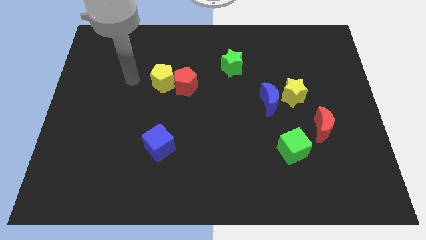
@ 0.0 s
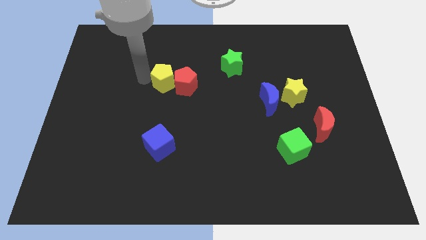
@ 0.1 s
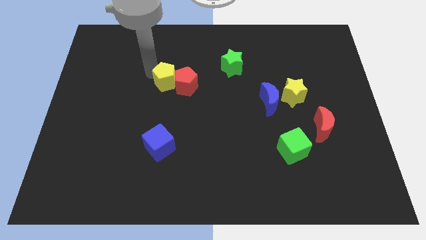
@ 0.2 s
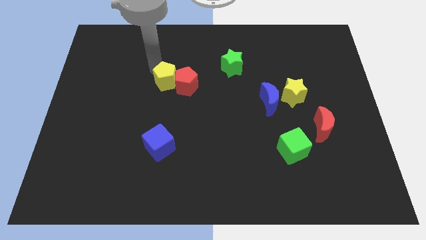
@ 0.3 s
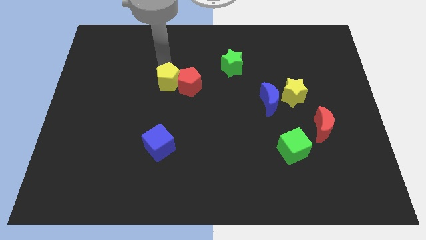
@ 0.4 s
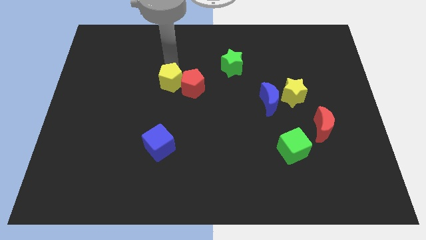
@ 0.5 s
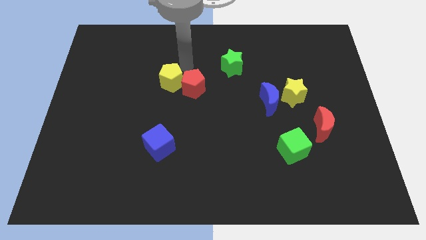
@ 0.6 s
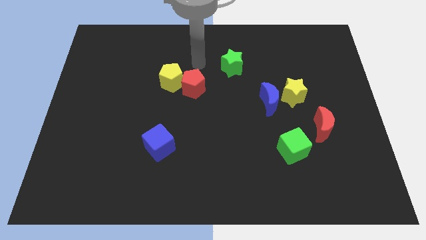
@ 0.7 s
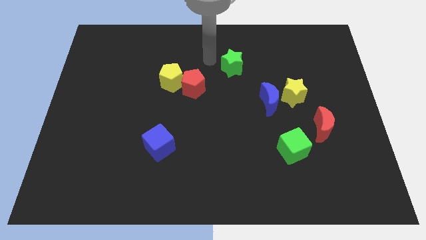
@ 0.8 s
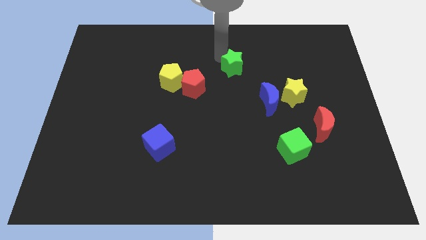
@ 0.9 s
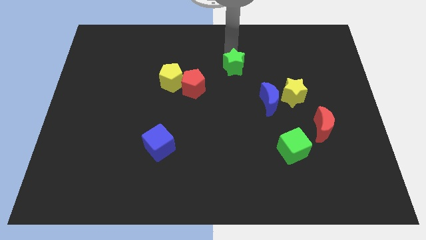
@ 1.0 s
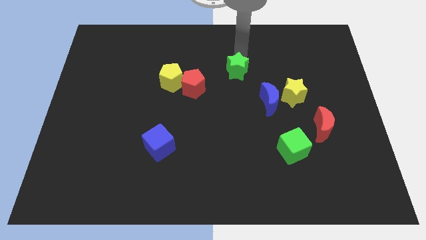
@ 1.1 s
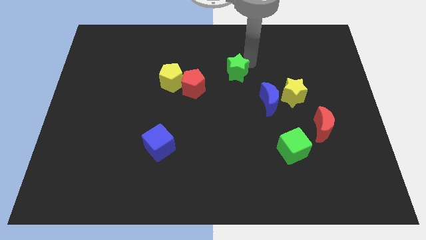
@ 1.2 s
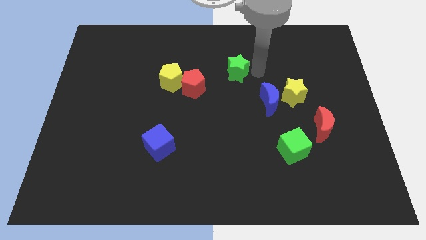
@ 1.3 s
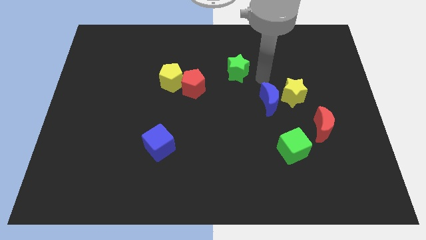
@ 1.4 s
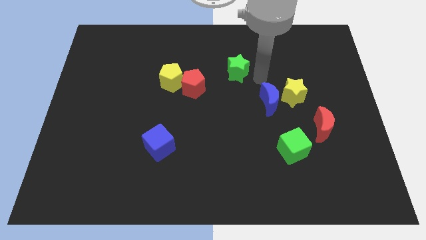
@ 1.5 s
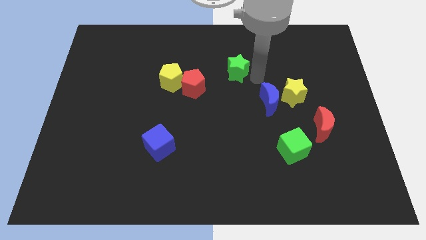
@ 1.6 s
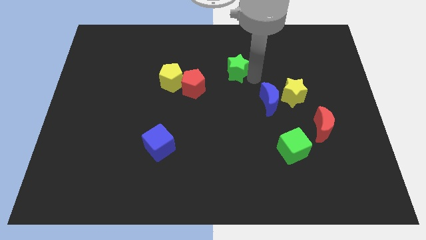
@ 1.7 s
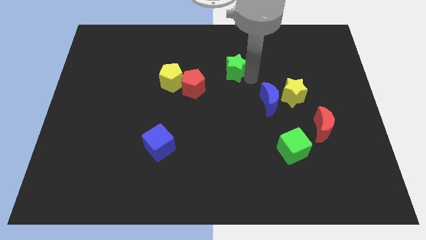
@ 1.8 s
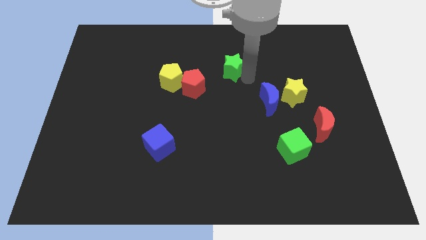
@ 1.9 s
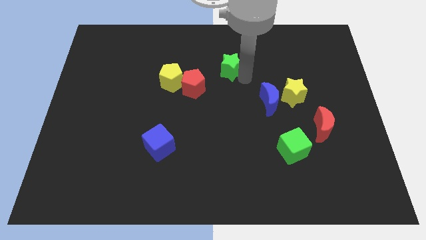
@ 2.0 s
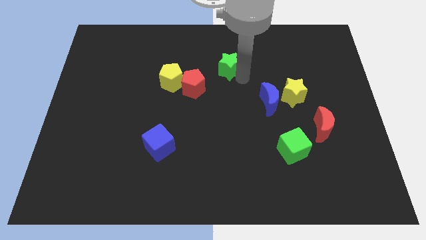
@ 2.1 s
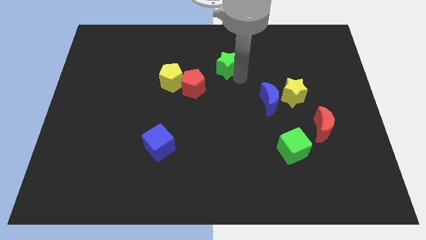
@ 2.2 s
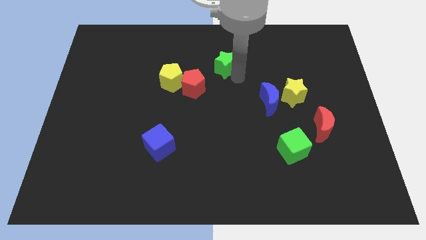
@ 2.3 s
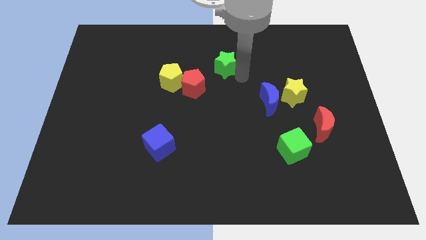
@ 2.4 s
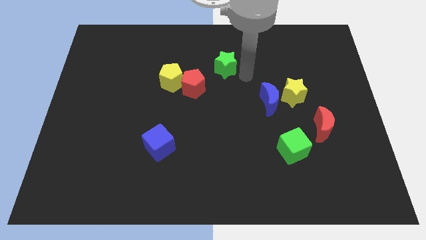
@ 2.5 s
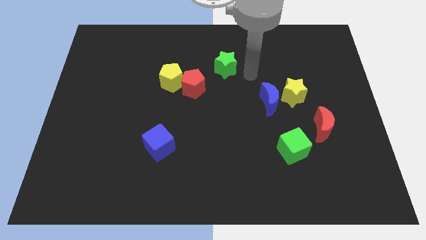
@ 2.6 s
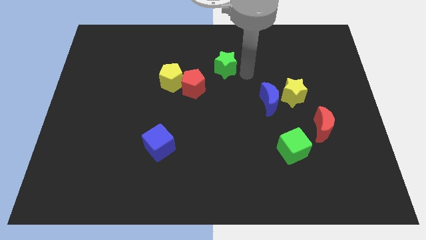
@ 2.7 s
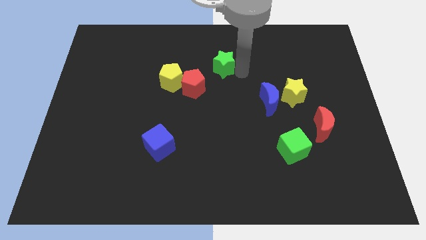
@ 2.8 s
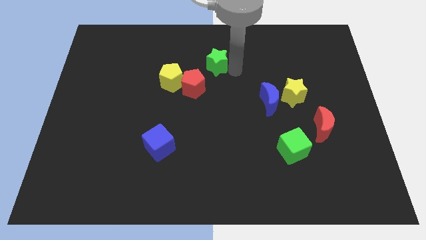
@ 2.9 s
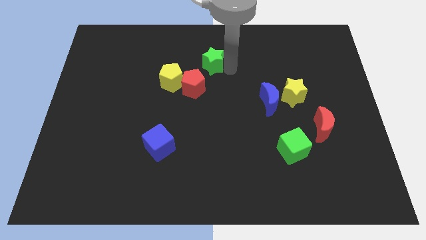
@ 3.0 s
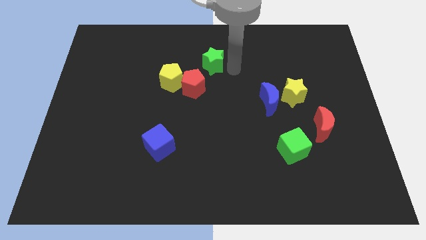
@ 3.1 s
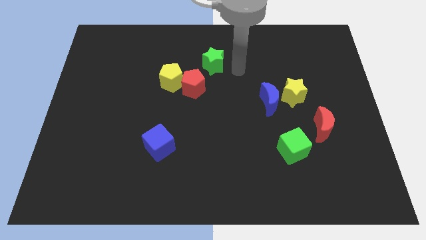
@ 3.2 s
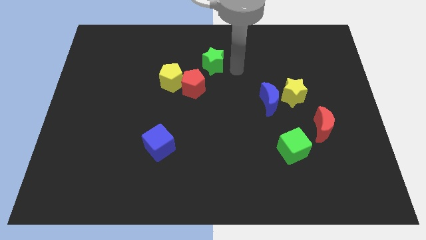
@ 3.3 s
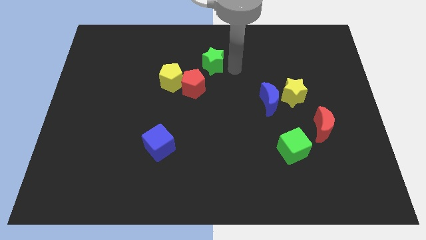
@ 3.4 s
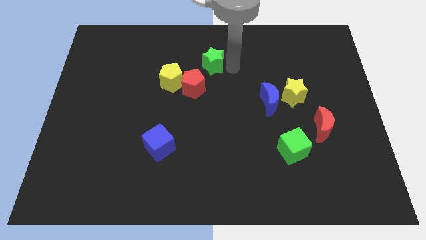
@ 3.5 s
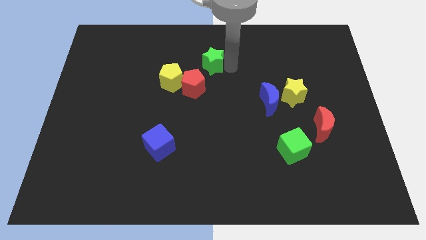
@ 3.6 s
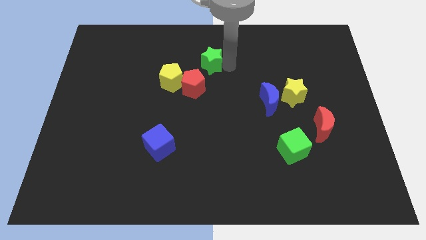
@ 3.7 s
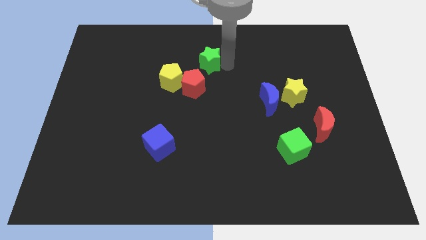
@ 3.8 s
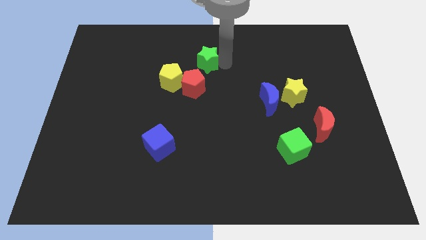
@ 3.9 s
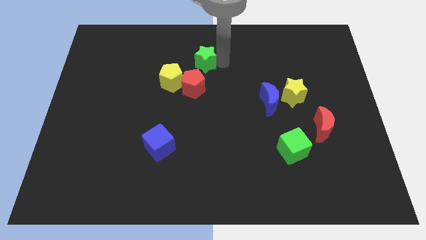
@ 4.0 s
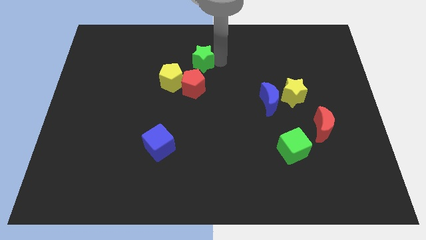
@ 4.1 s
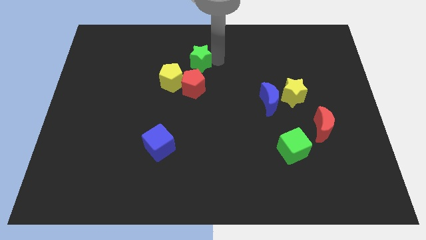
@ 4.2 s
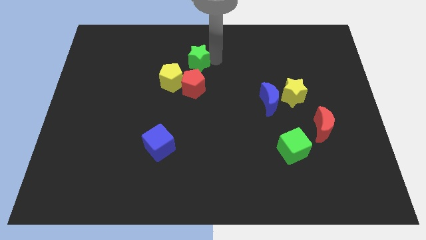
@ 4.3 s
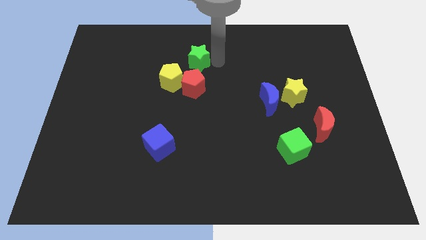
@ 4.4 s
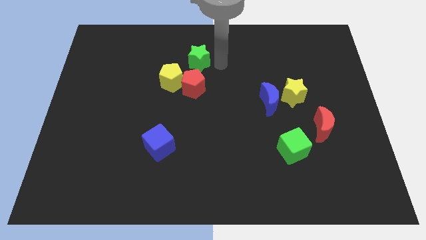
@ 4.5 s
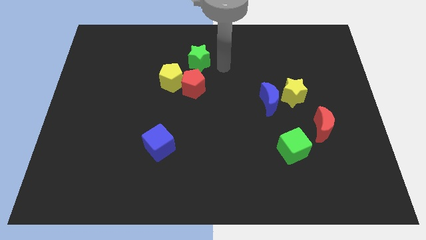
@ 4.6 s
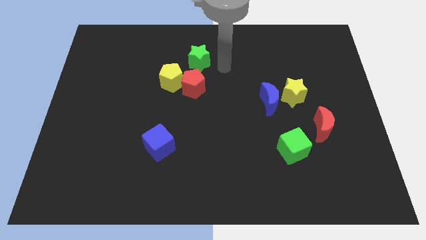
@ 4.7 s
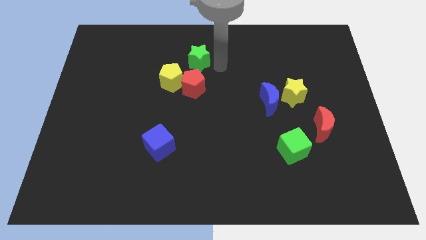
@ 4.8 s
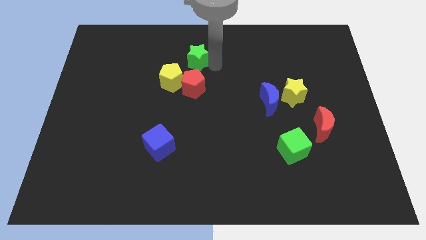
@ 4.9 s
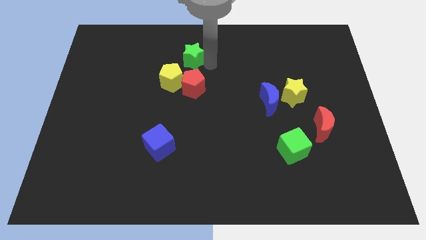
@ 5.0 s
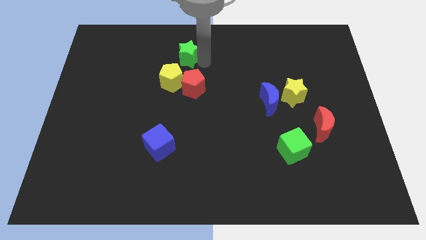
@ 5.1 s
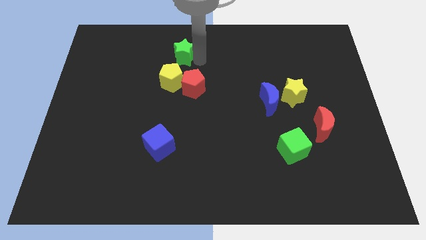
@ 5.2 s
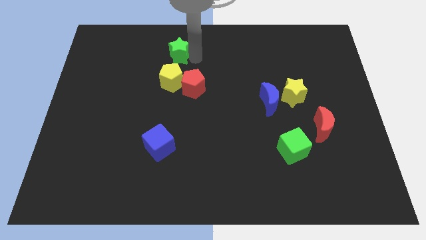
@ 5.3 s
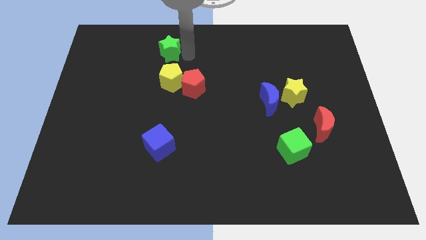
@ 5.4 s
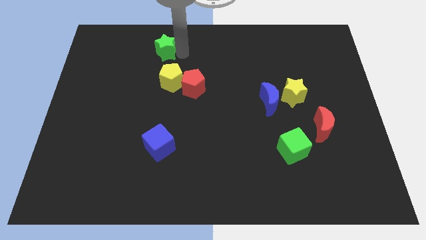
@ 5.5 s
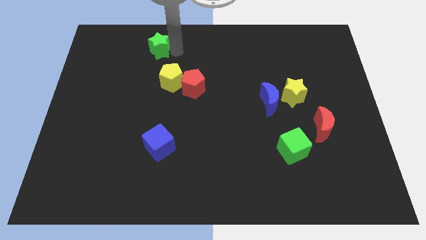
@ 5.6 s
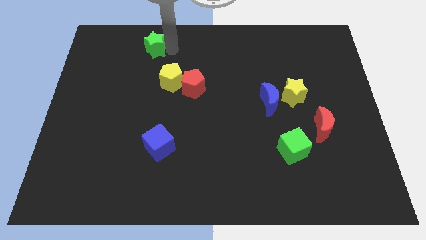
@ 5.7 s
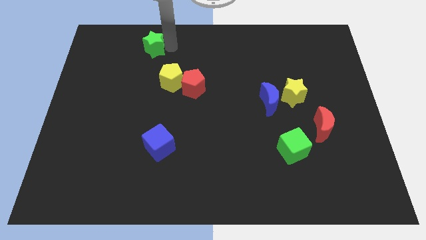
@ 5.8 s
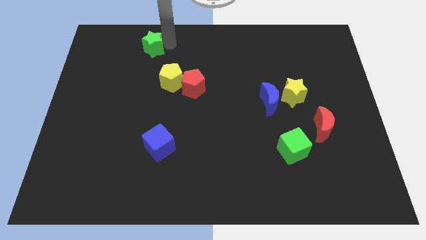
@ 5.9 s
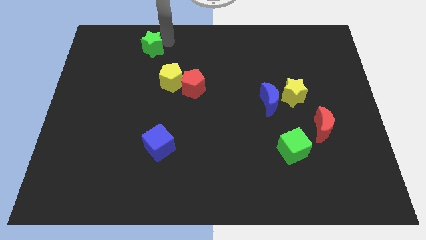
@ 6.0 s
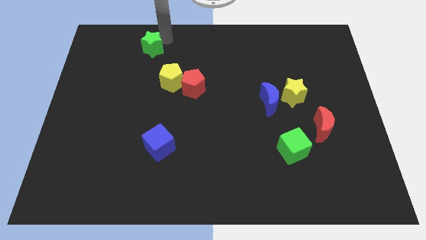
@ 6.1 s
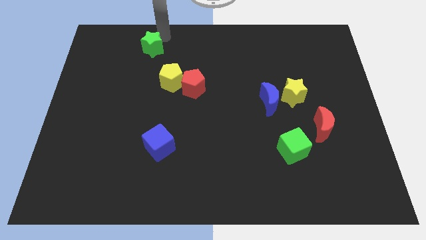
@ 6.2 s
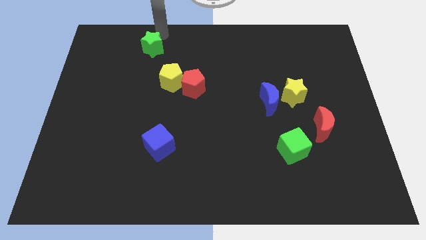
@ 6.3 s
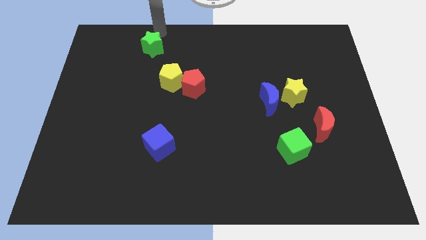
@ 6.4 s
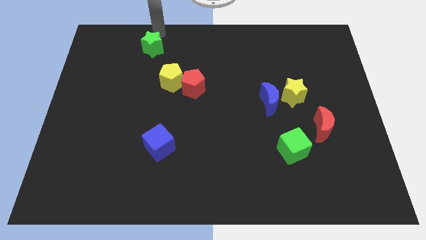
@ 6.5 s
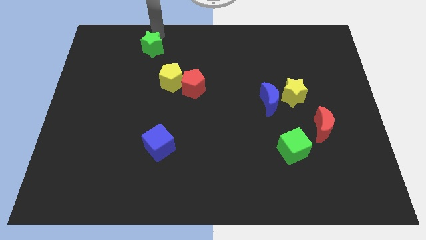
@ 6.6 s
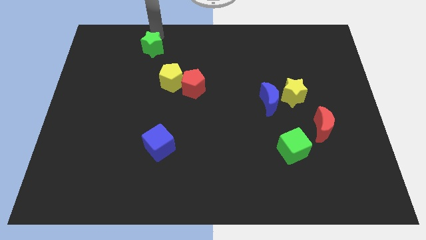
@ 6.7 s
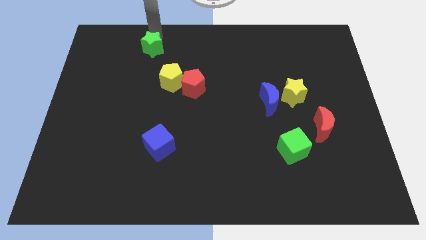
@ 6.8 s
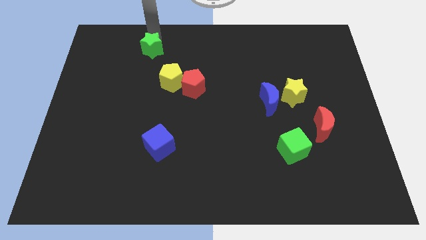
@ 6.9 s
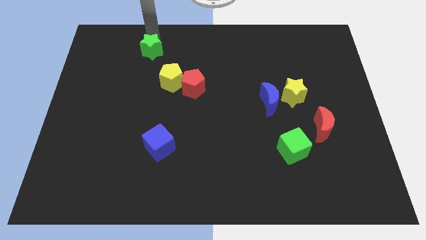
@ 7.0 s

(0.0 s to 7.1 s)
slide the green star to the left

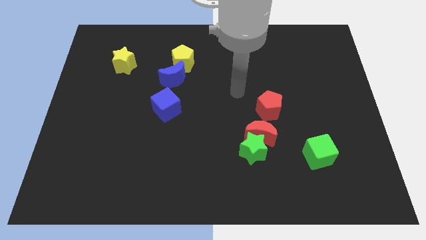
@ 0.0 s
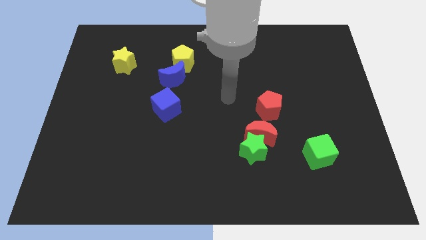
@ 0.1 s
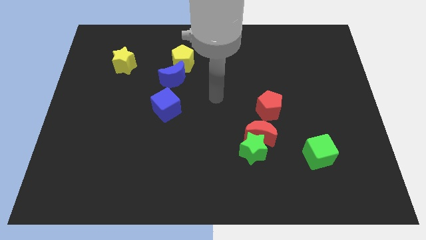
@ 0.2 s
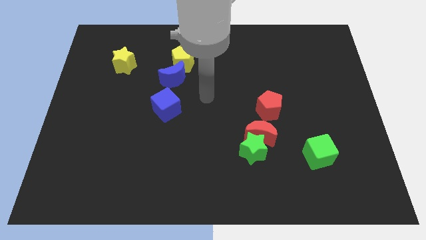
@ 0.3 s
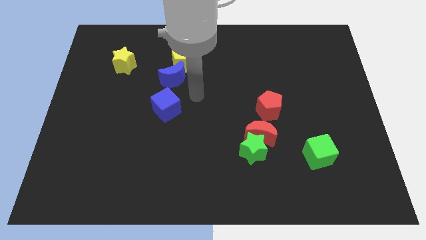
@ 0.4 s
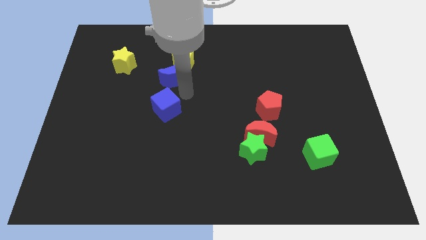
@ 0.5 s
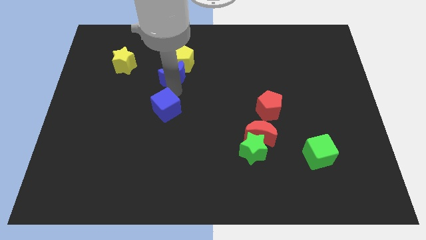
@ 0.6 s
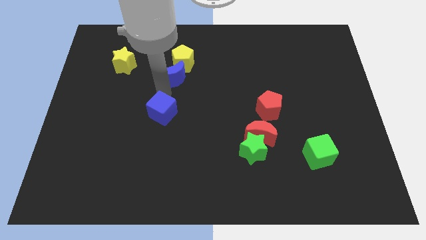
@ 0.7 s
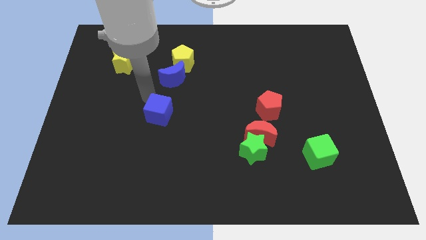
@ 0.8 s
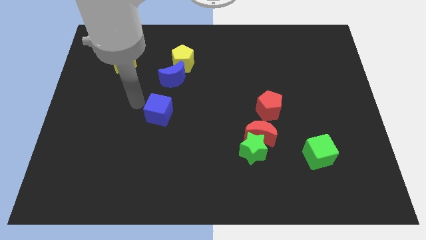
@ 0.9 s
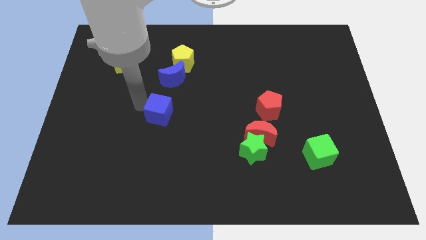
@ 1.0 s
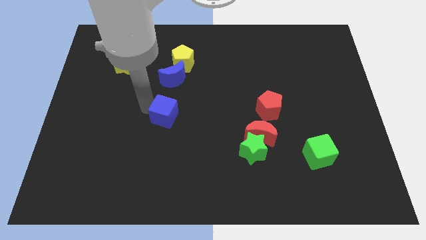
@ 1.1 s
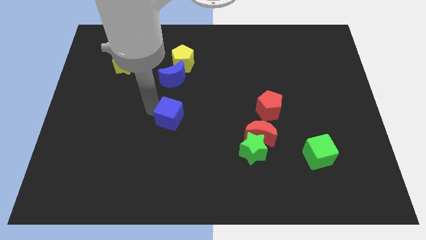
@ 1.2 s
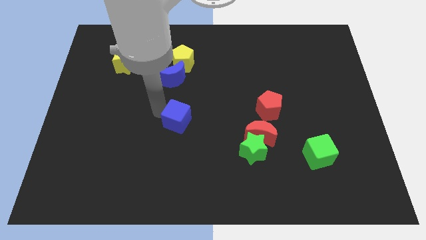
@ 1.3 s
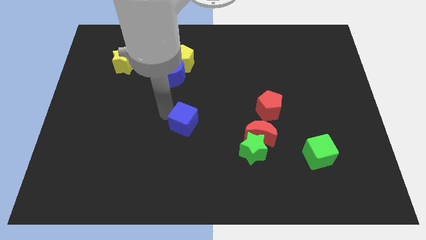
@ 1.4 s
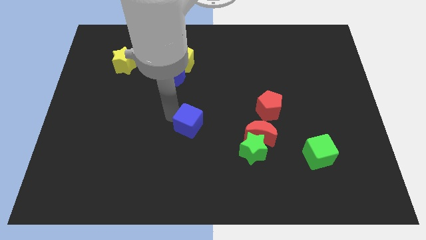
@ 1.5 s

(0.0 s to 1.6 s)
slide the blue cube a bit down and to the right
